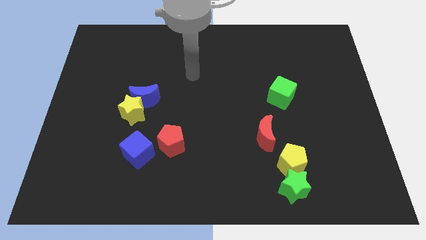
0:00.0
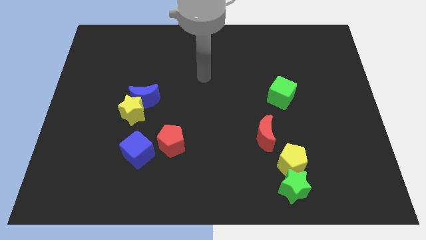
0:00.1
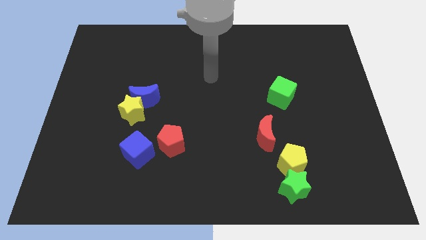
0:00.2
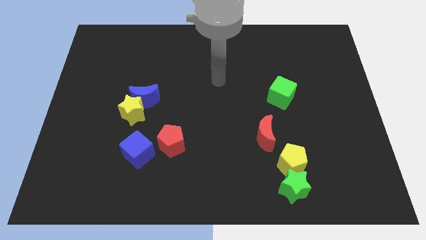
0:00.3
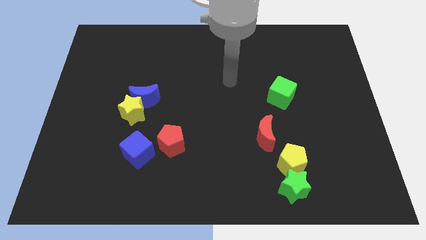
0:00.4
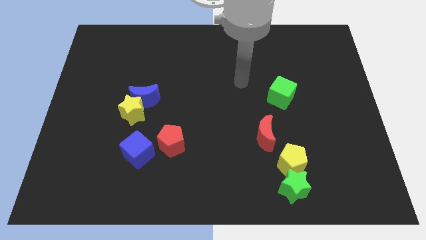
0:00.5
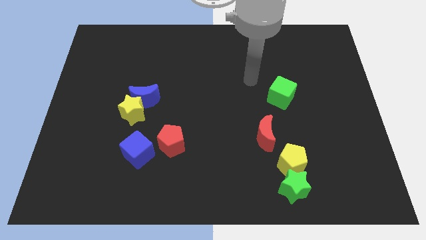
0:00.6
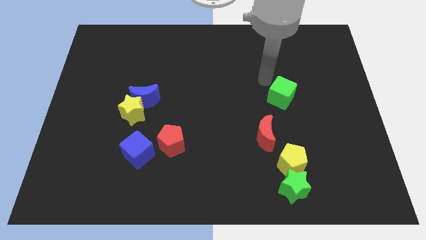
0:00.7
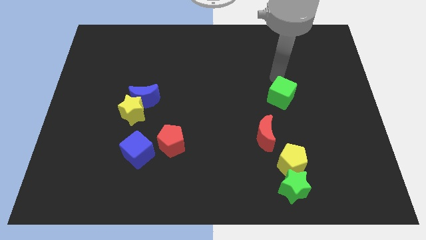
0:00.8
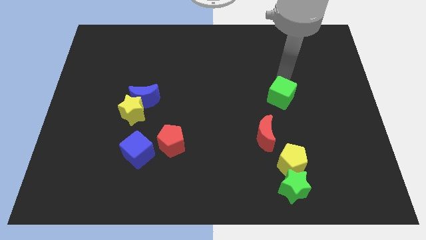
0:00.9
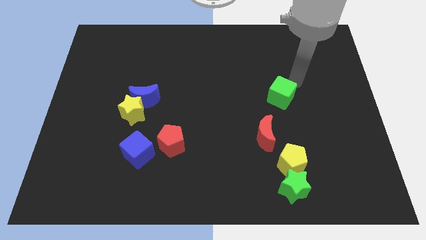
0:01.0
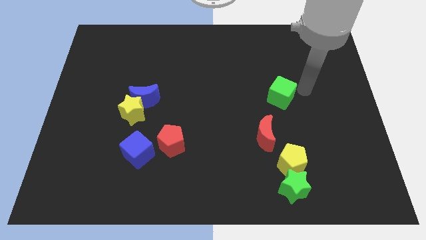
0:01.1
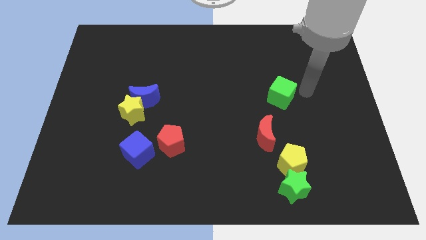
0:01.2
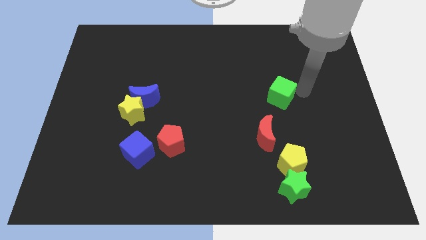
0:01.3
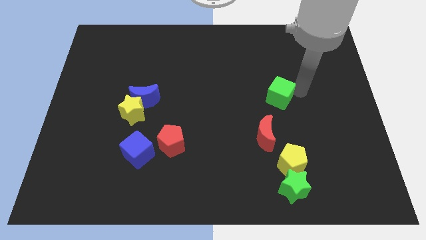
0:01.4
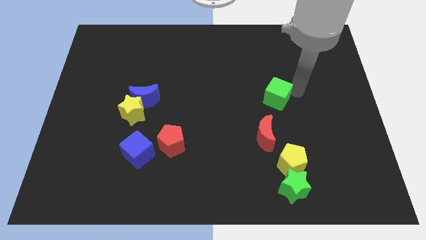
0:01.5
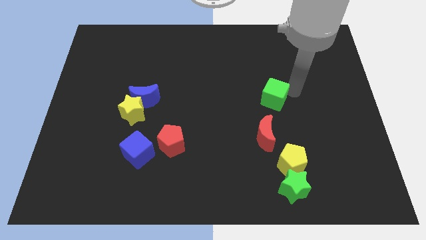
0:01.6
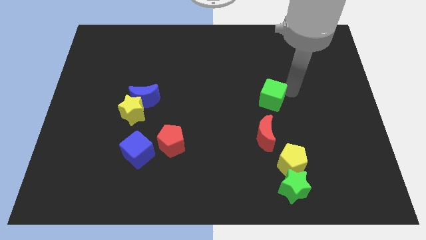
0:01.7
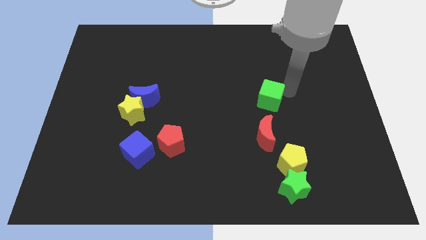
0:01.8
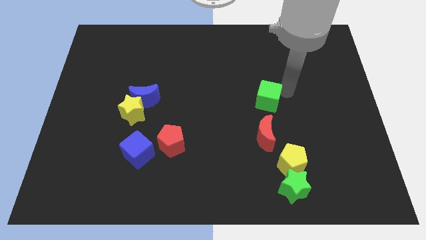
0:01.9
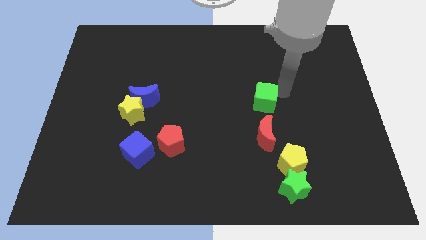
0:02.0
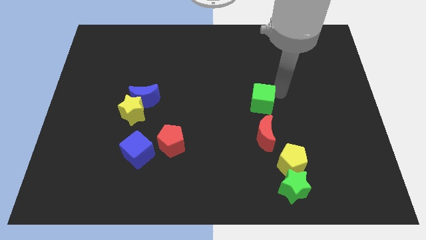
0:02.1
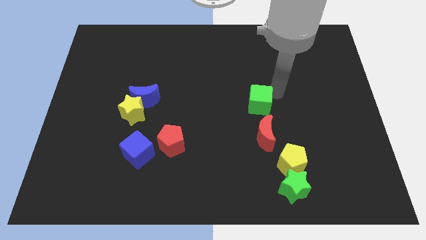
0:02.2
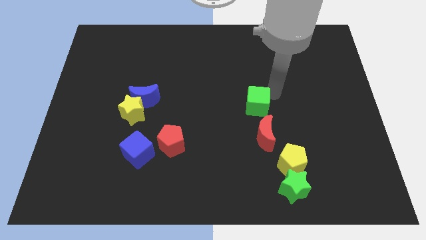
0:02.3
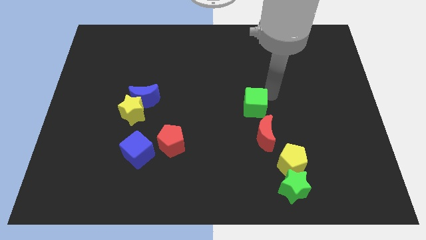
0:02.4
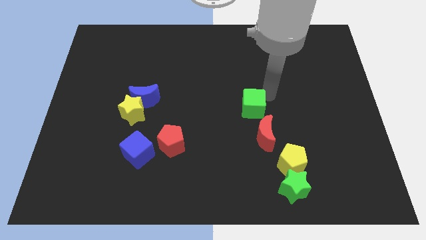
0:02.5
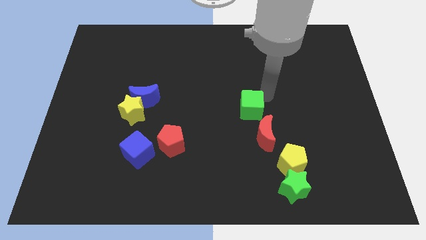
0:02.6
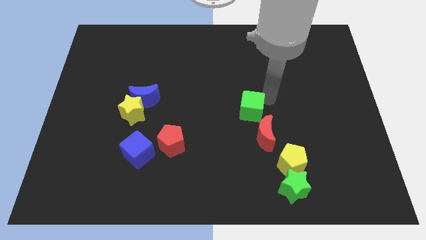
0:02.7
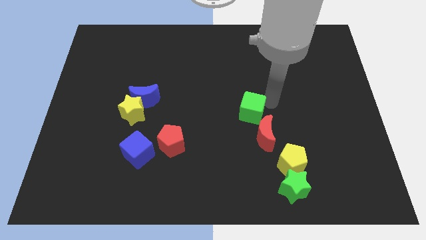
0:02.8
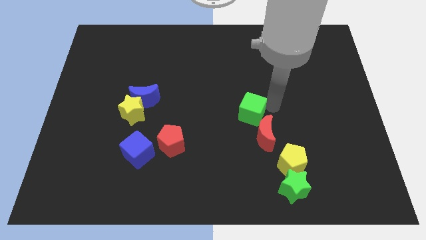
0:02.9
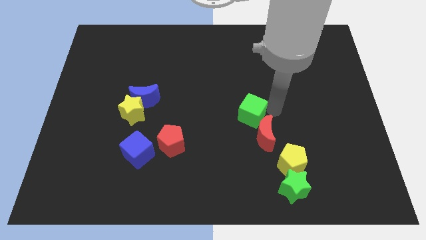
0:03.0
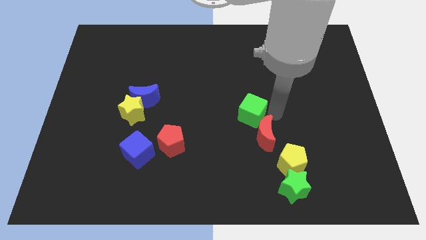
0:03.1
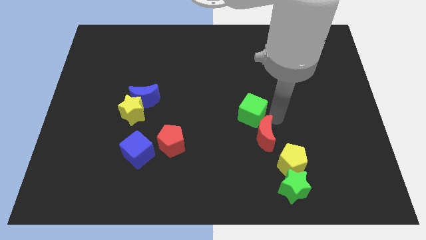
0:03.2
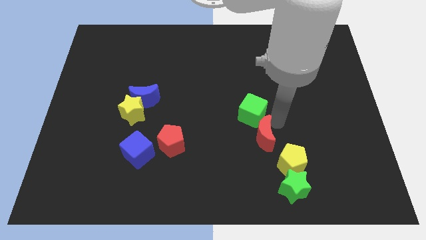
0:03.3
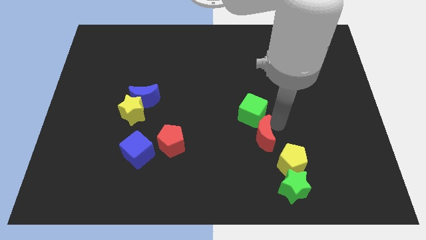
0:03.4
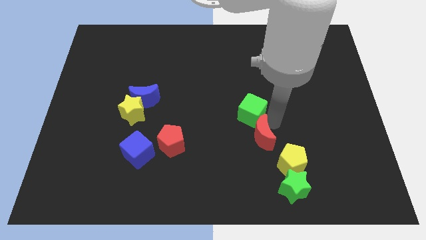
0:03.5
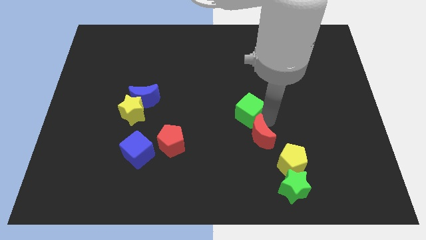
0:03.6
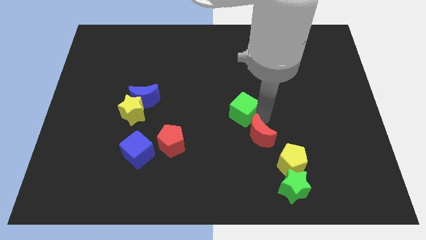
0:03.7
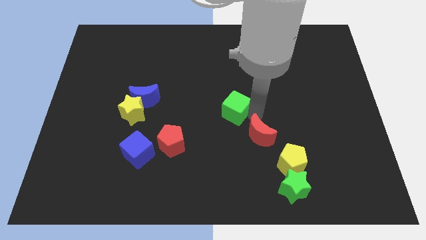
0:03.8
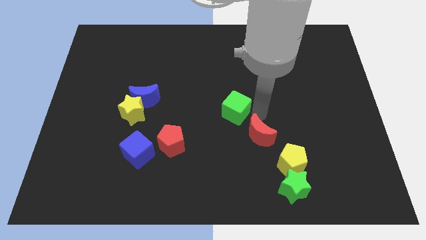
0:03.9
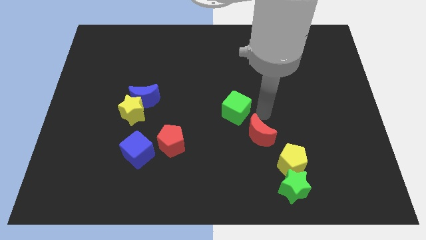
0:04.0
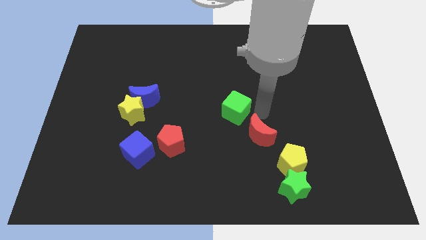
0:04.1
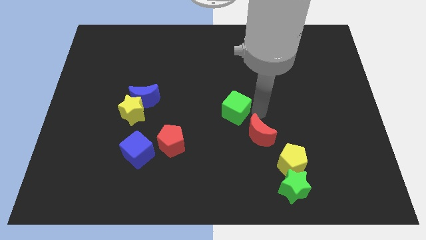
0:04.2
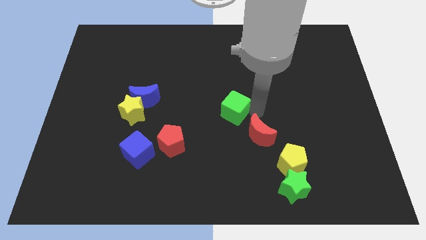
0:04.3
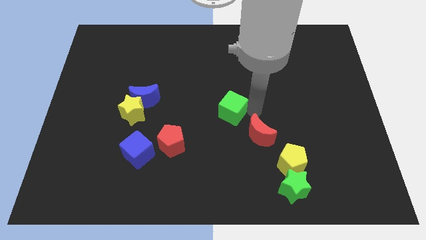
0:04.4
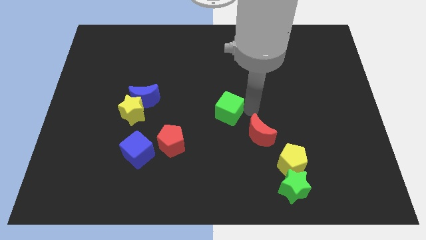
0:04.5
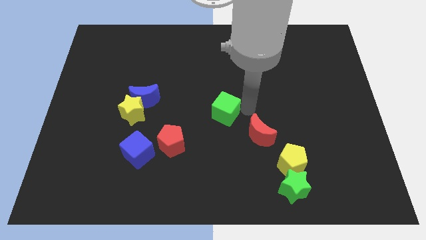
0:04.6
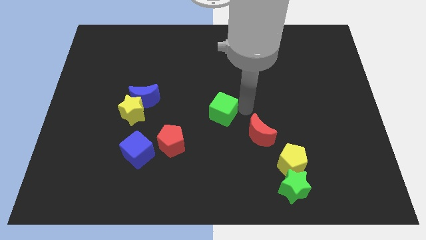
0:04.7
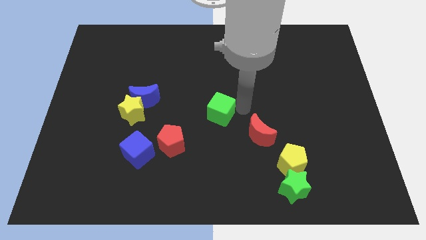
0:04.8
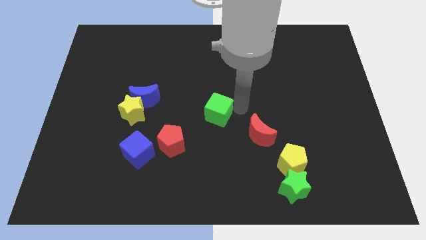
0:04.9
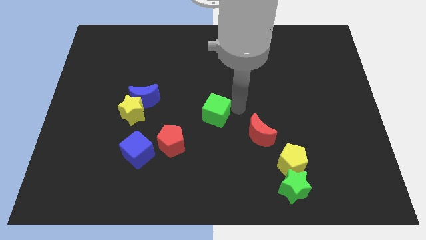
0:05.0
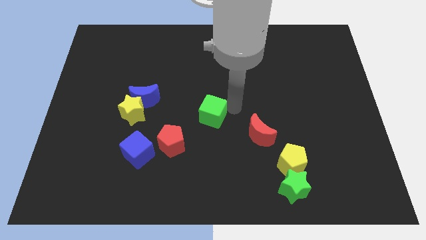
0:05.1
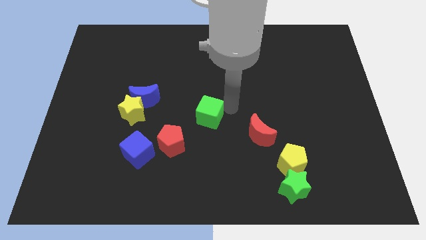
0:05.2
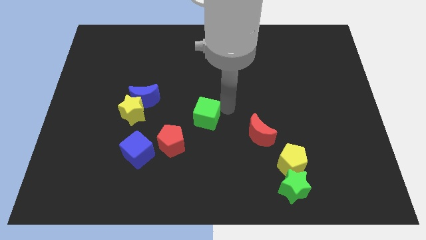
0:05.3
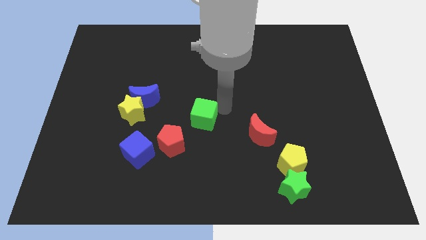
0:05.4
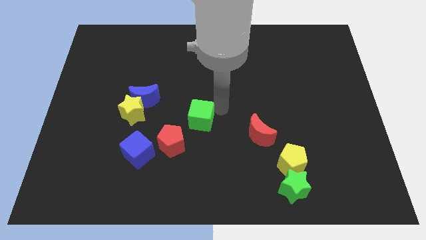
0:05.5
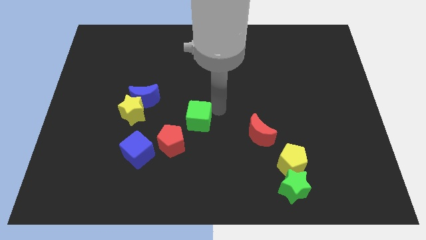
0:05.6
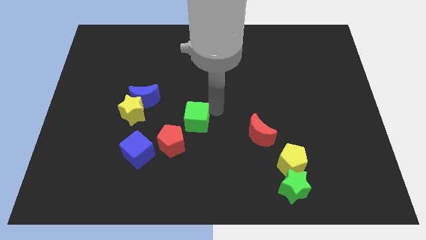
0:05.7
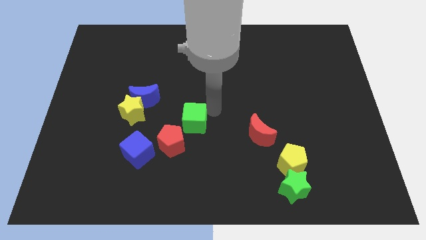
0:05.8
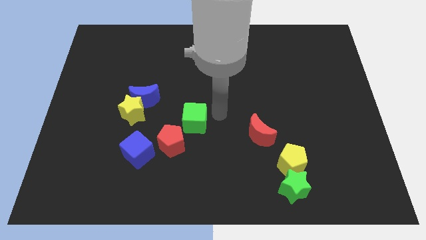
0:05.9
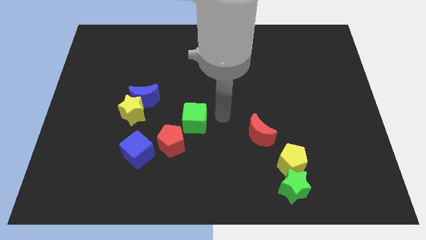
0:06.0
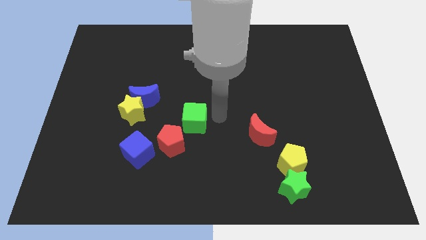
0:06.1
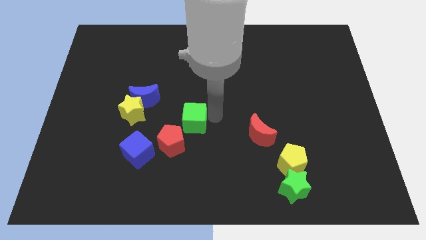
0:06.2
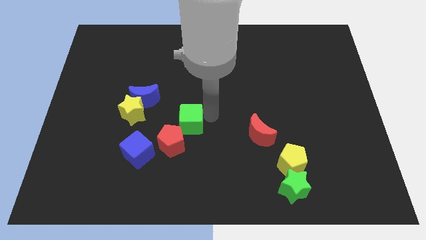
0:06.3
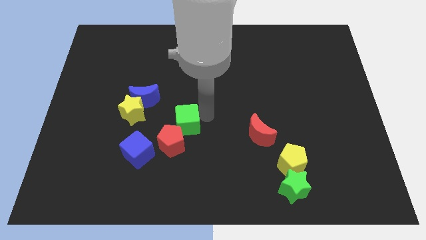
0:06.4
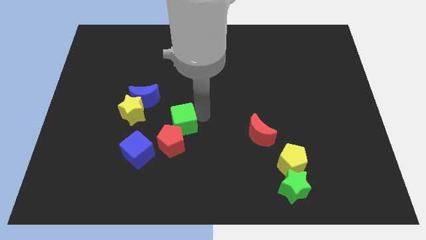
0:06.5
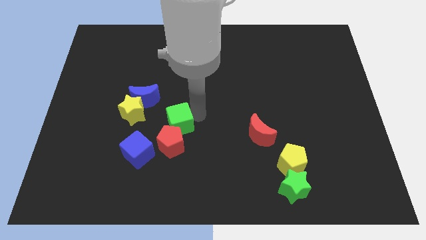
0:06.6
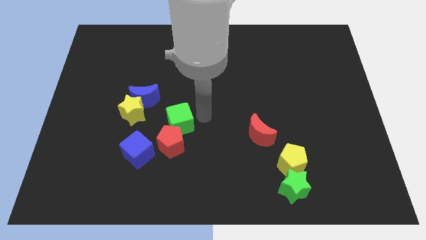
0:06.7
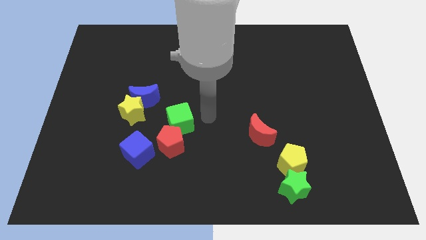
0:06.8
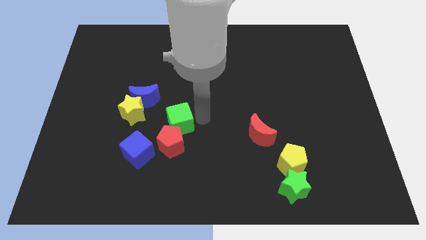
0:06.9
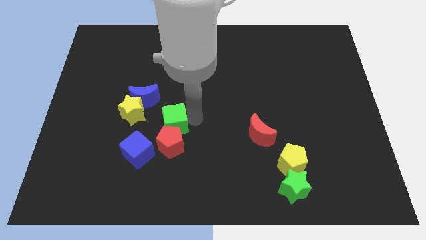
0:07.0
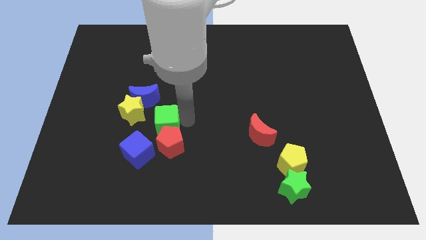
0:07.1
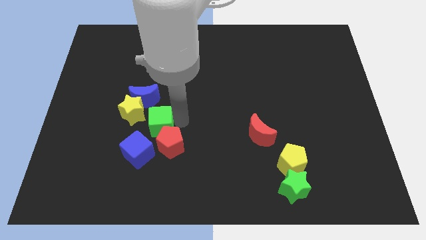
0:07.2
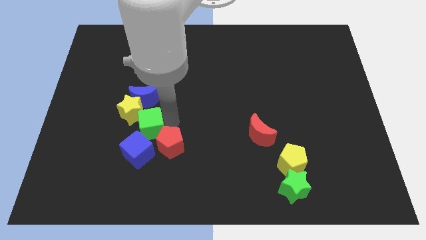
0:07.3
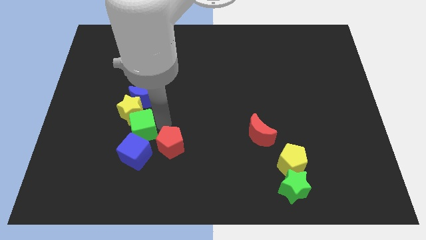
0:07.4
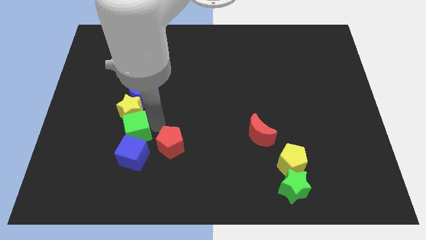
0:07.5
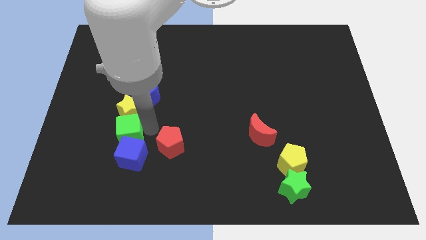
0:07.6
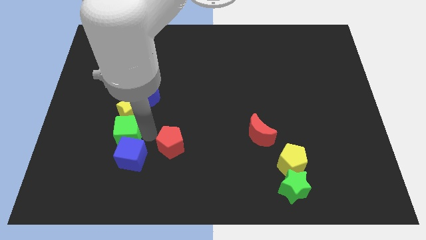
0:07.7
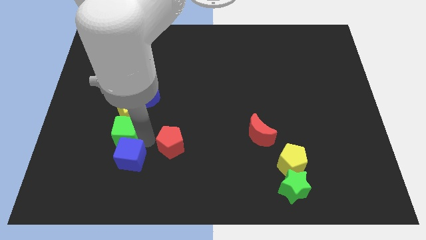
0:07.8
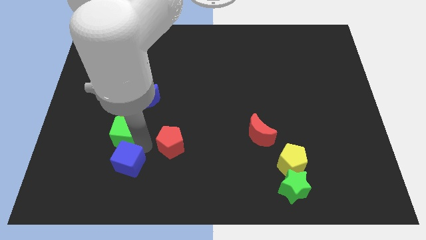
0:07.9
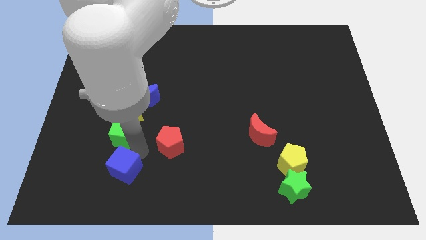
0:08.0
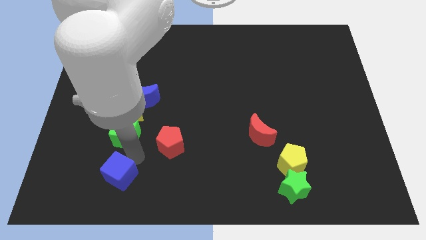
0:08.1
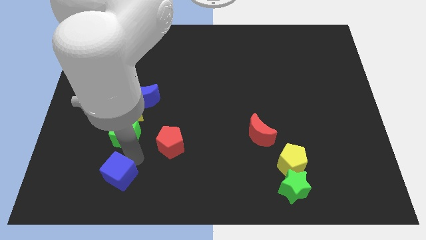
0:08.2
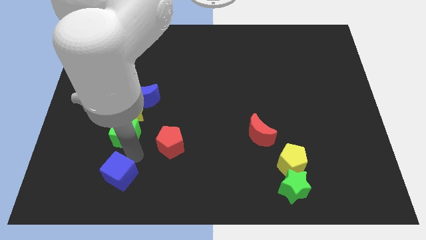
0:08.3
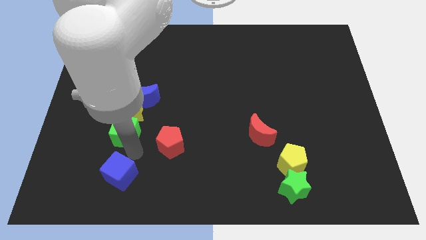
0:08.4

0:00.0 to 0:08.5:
push the green cube to the bottom left of the blue moon
